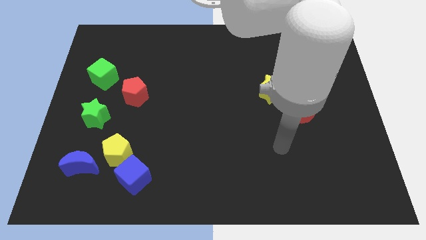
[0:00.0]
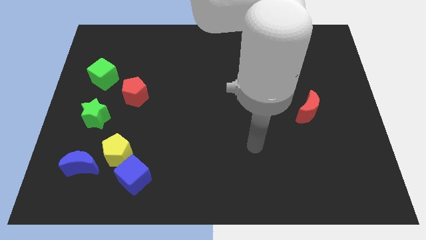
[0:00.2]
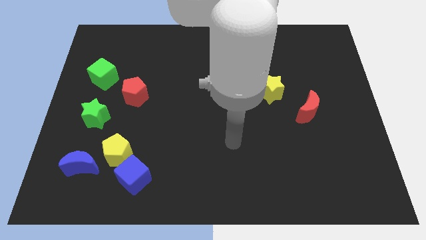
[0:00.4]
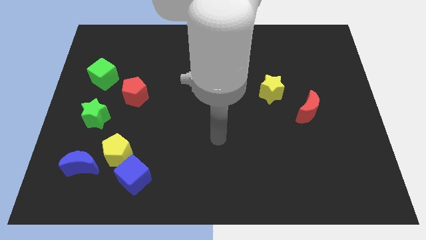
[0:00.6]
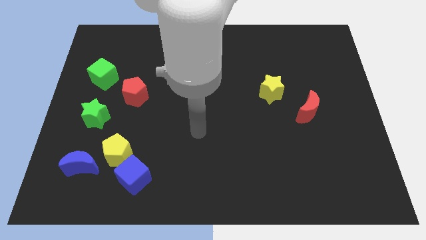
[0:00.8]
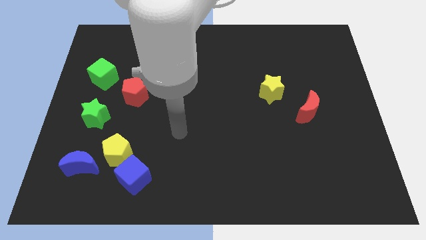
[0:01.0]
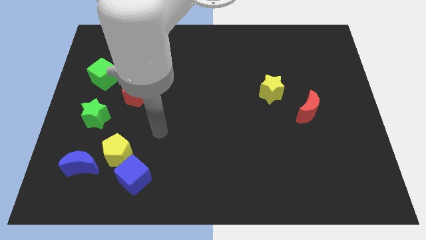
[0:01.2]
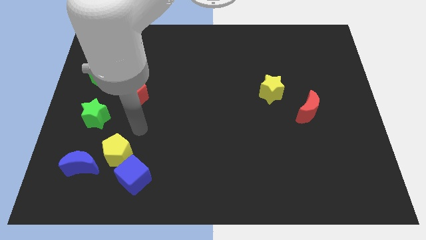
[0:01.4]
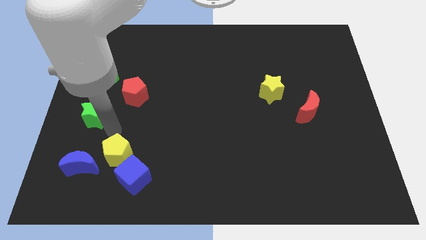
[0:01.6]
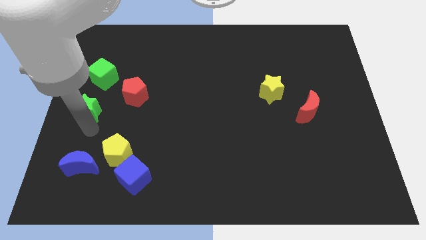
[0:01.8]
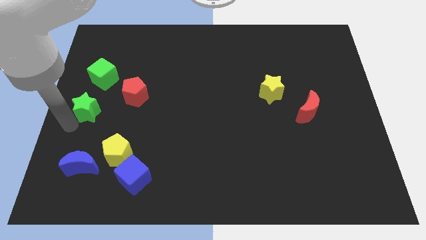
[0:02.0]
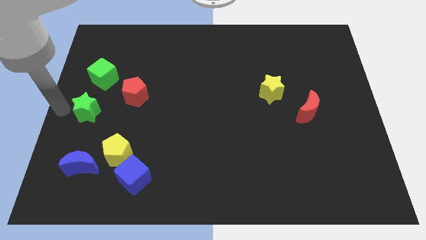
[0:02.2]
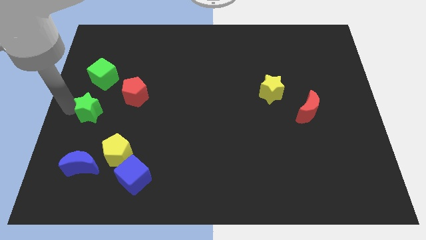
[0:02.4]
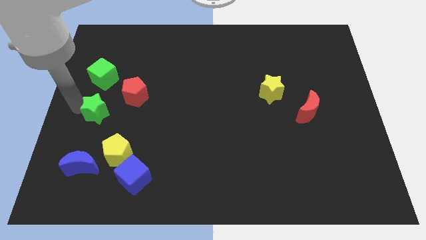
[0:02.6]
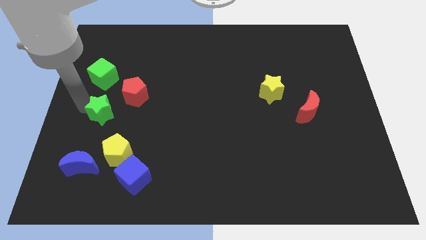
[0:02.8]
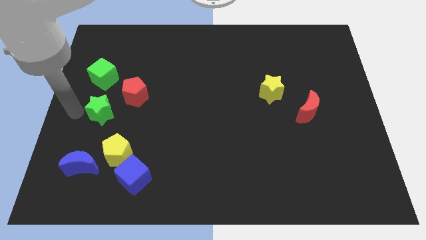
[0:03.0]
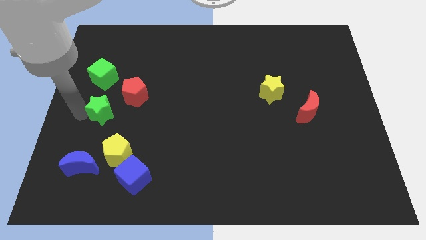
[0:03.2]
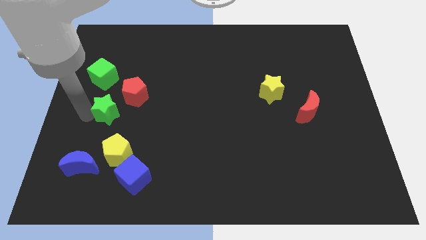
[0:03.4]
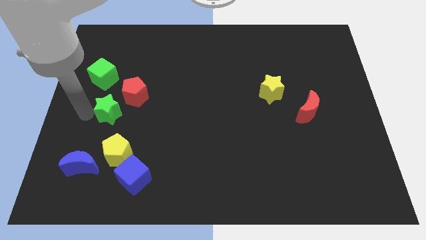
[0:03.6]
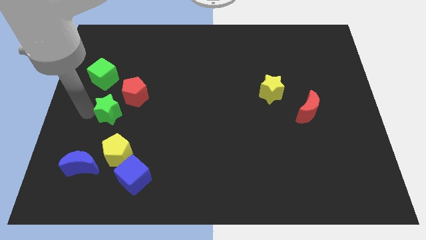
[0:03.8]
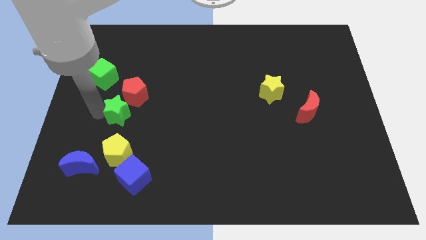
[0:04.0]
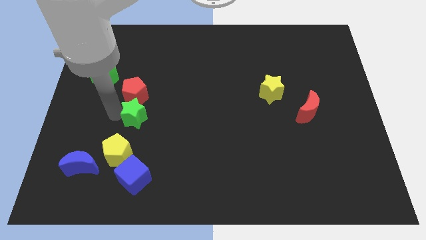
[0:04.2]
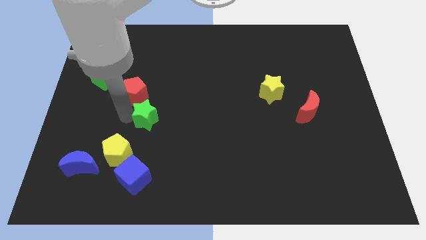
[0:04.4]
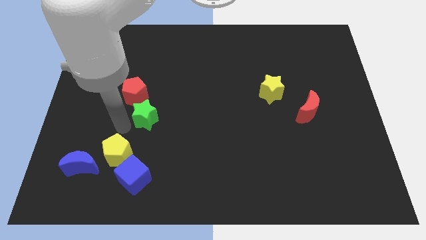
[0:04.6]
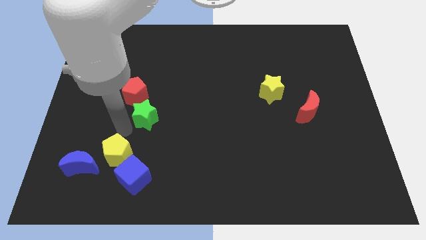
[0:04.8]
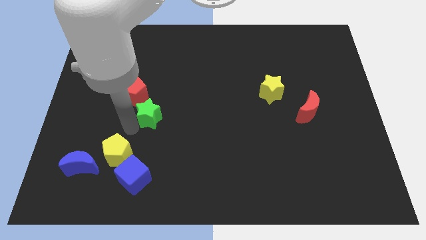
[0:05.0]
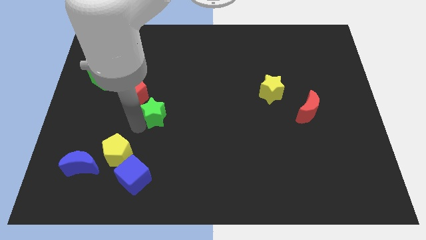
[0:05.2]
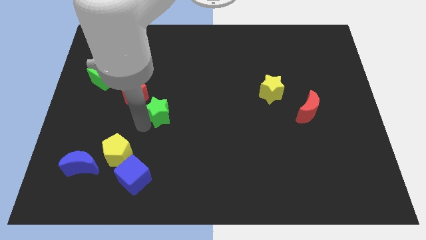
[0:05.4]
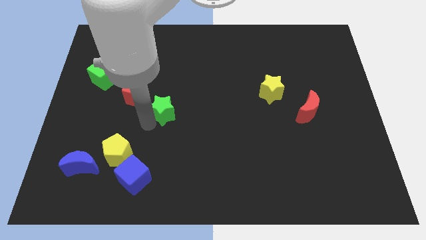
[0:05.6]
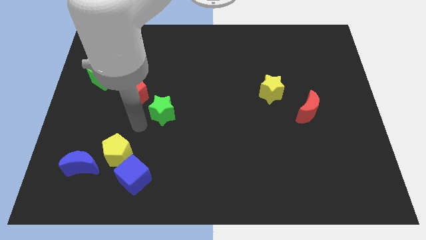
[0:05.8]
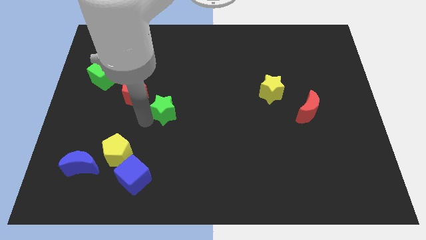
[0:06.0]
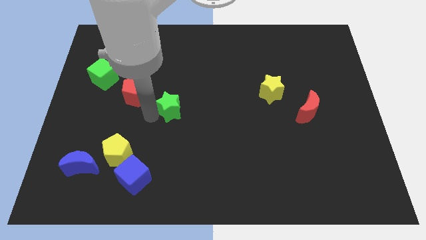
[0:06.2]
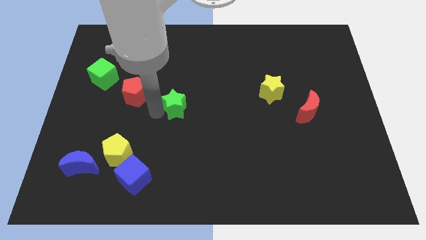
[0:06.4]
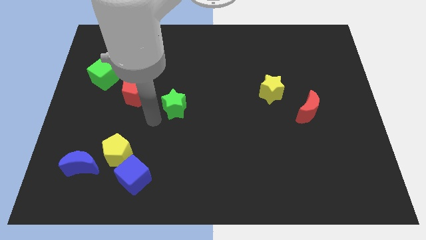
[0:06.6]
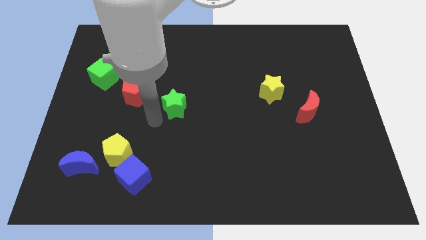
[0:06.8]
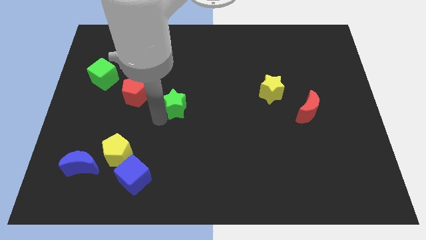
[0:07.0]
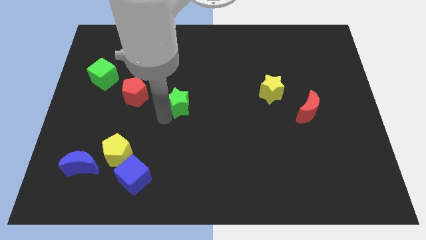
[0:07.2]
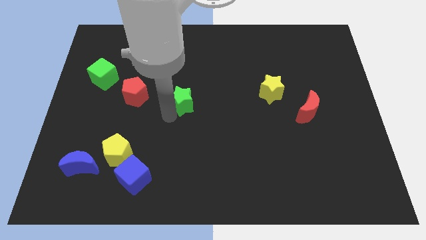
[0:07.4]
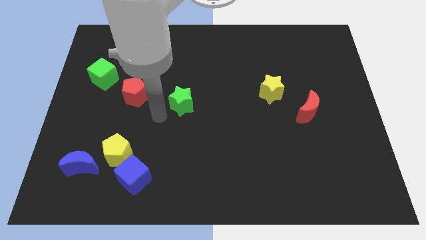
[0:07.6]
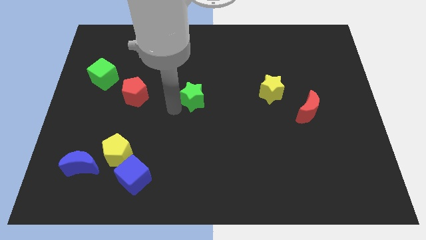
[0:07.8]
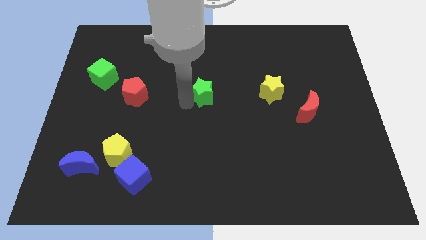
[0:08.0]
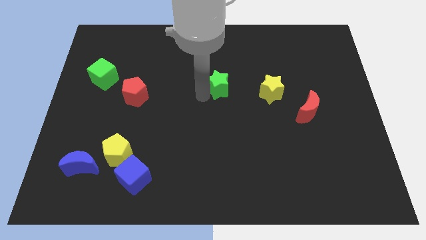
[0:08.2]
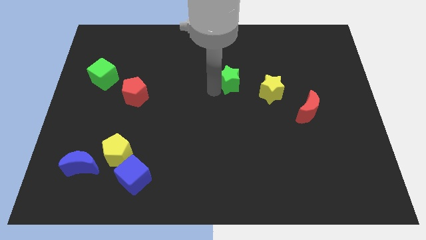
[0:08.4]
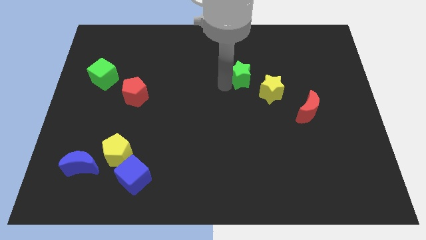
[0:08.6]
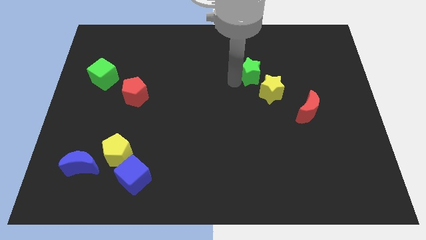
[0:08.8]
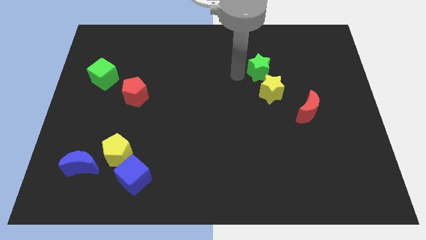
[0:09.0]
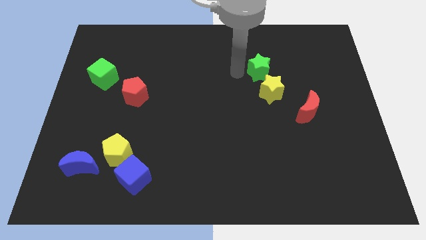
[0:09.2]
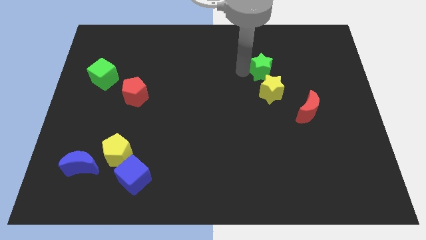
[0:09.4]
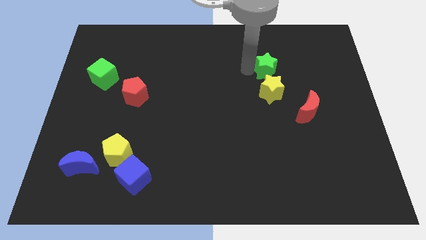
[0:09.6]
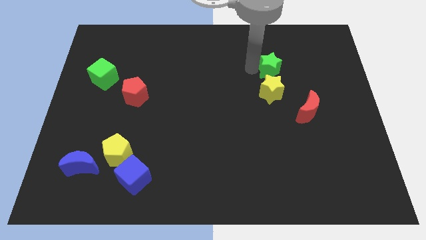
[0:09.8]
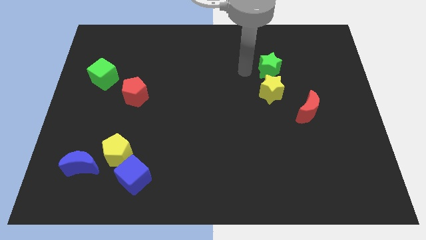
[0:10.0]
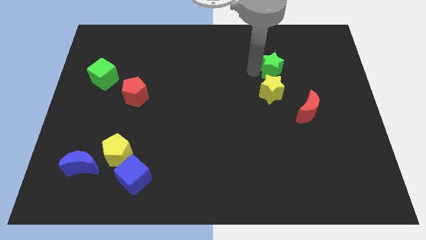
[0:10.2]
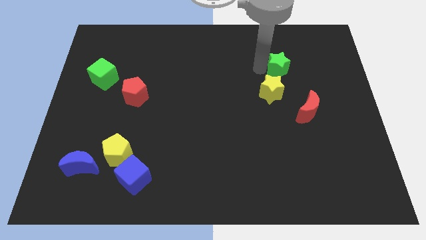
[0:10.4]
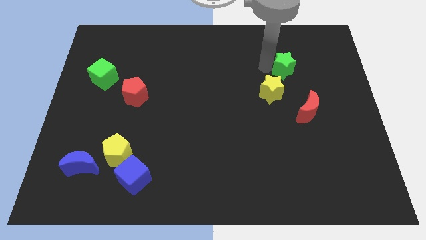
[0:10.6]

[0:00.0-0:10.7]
put the green star to the top of the red moon

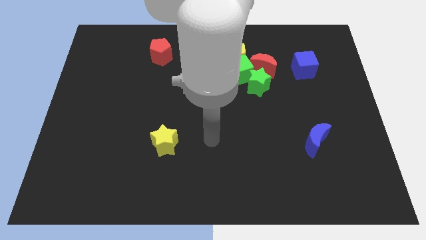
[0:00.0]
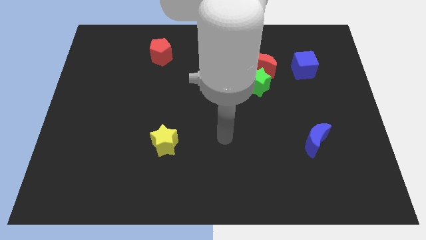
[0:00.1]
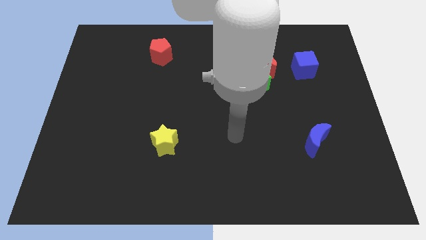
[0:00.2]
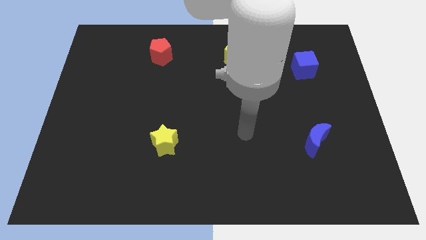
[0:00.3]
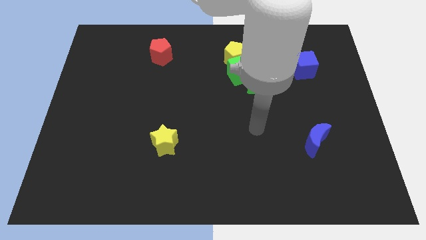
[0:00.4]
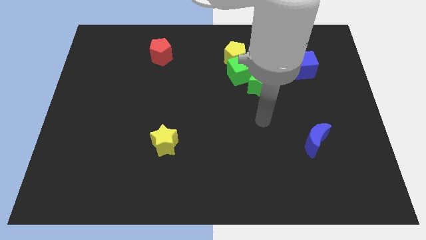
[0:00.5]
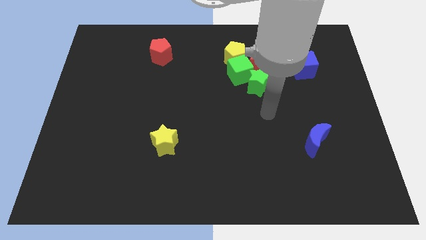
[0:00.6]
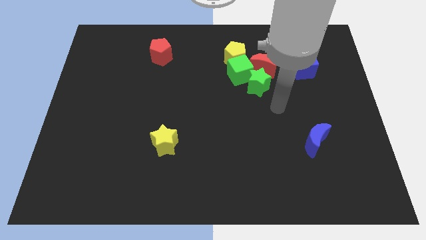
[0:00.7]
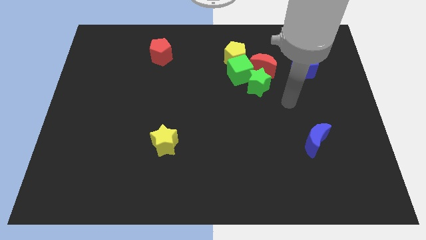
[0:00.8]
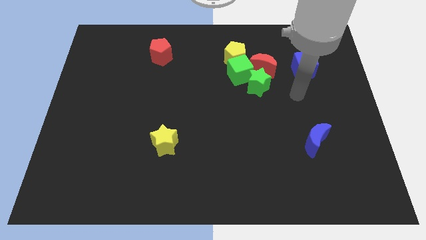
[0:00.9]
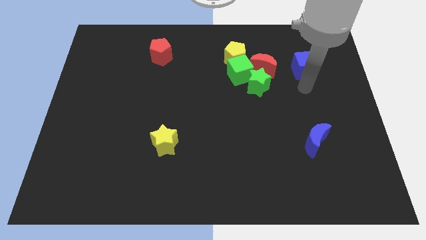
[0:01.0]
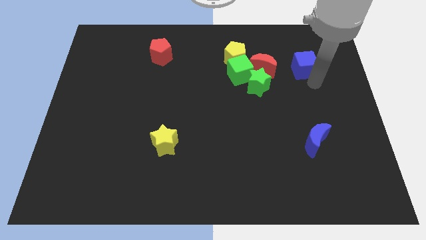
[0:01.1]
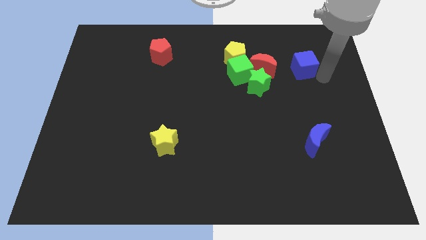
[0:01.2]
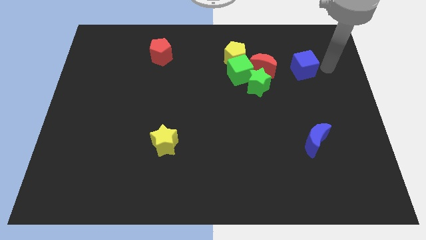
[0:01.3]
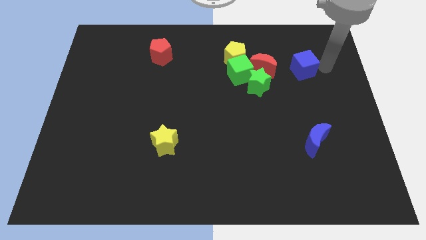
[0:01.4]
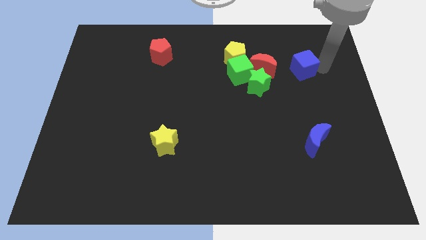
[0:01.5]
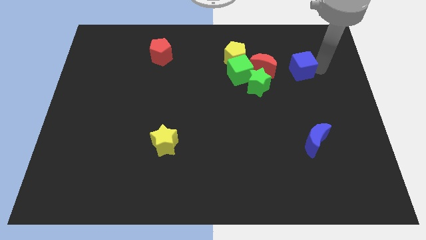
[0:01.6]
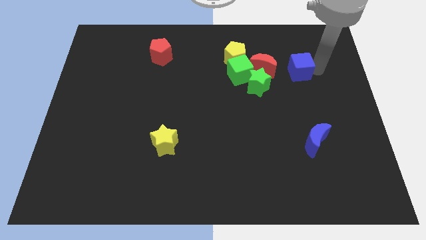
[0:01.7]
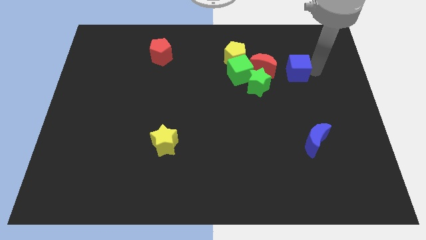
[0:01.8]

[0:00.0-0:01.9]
move the blue cube diagonally up and to the right of the green star
